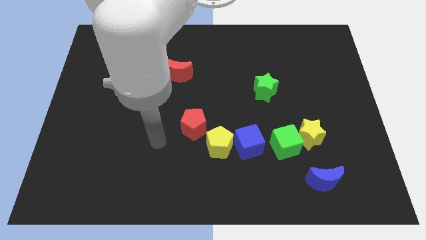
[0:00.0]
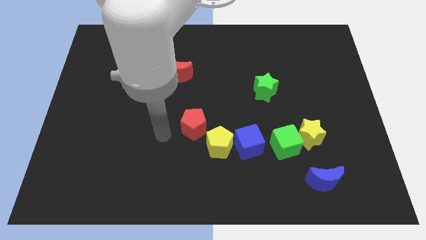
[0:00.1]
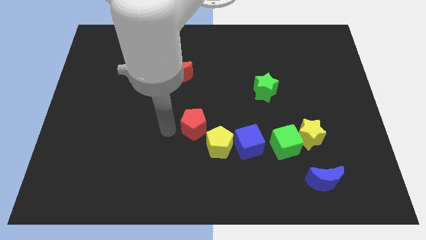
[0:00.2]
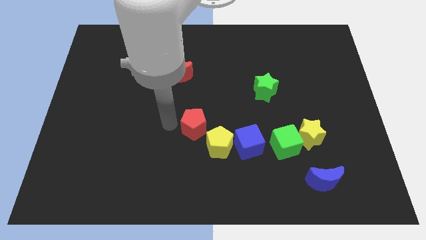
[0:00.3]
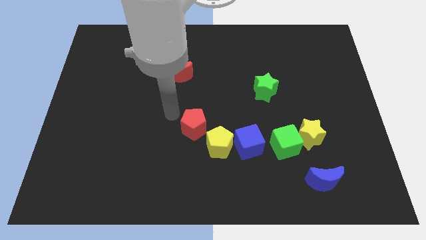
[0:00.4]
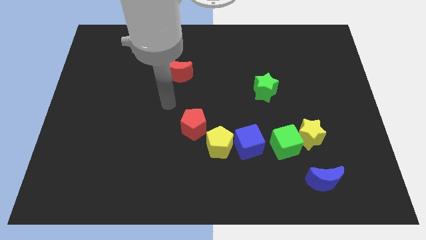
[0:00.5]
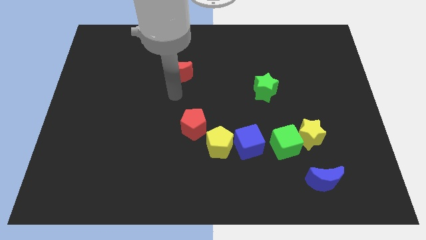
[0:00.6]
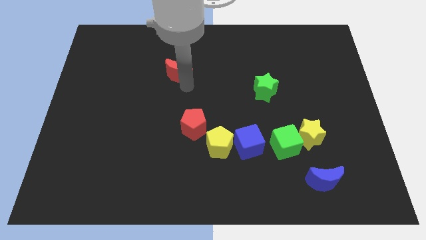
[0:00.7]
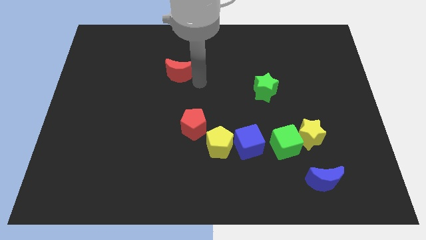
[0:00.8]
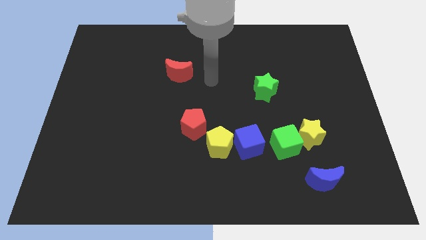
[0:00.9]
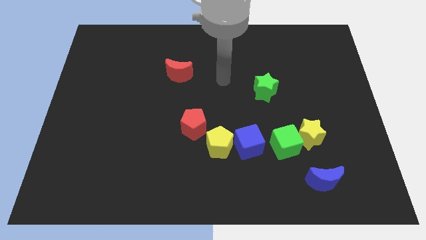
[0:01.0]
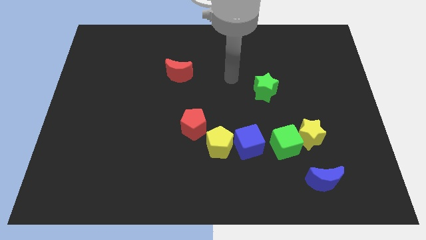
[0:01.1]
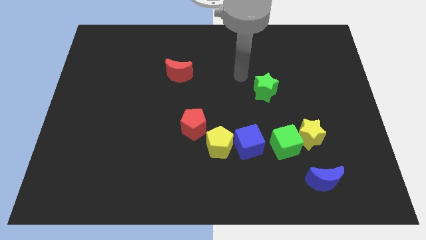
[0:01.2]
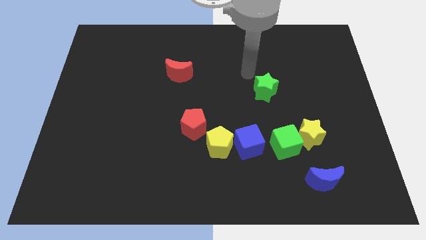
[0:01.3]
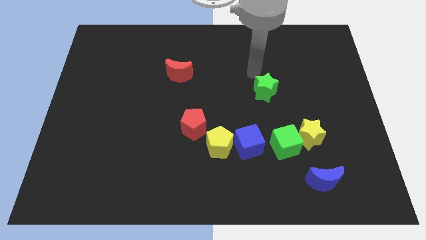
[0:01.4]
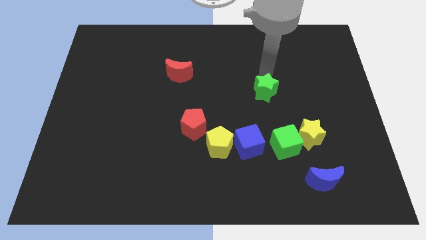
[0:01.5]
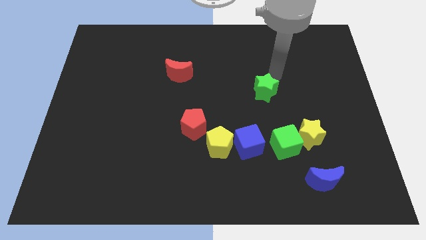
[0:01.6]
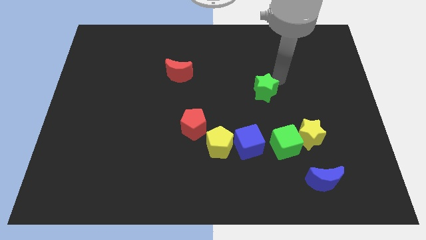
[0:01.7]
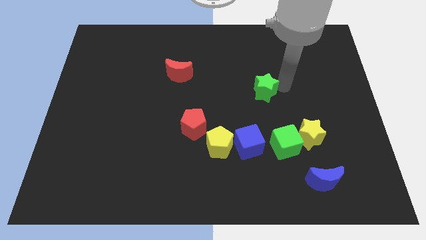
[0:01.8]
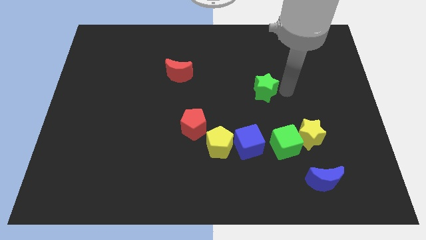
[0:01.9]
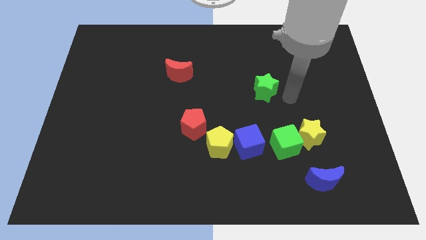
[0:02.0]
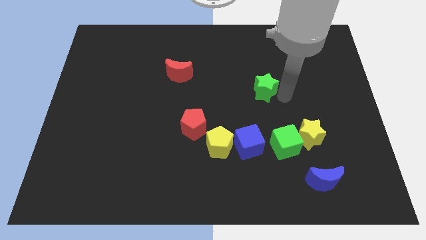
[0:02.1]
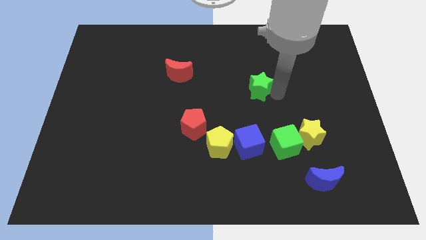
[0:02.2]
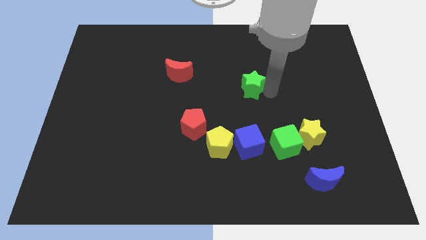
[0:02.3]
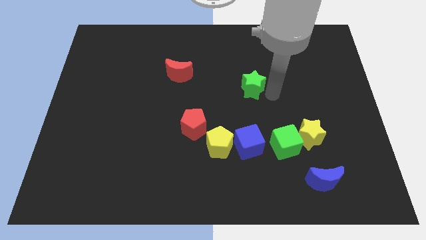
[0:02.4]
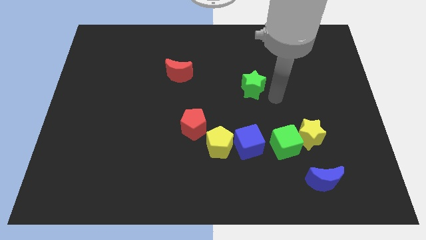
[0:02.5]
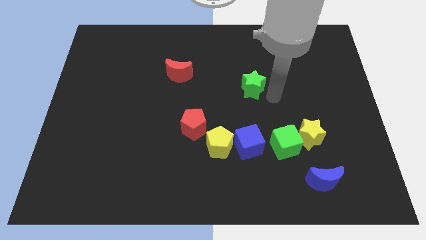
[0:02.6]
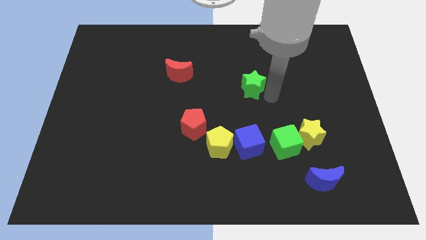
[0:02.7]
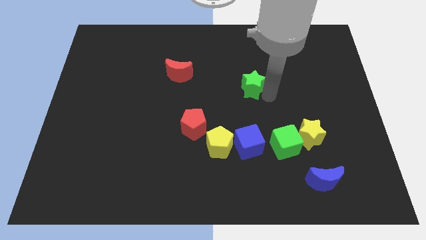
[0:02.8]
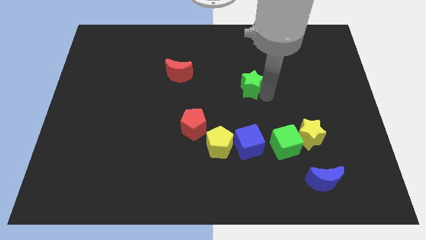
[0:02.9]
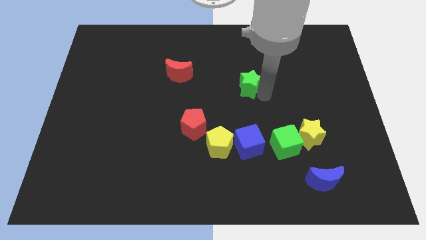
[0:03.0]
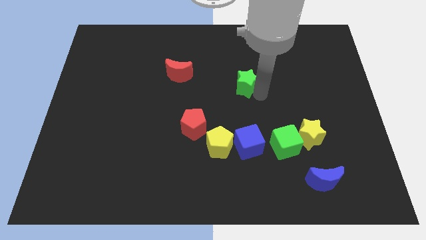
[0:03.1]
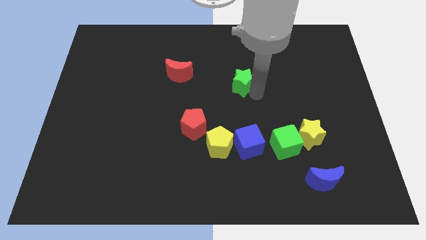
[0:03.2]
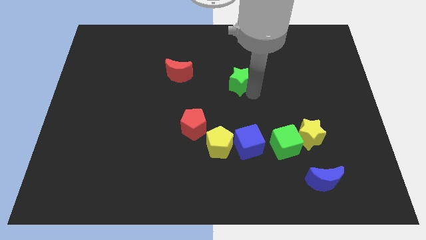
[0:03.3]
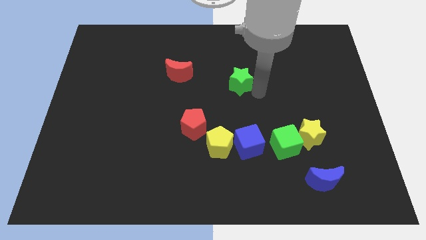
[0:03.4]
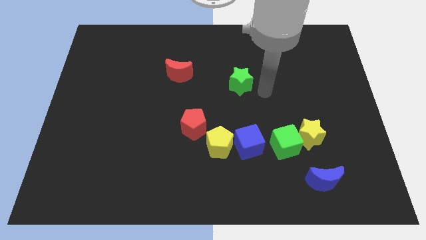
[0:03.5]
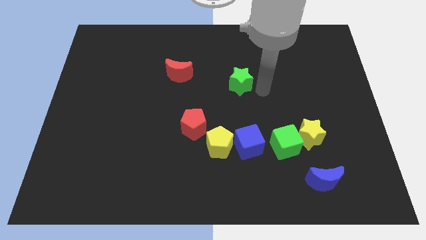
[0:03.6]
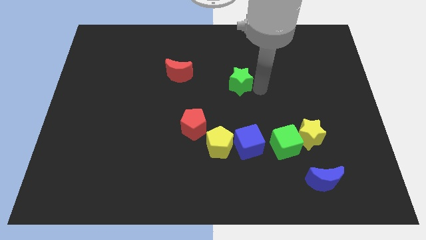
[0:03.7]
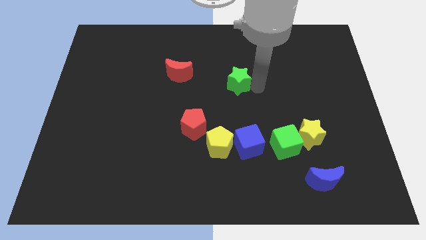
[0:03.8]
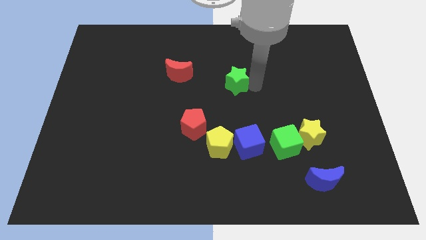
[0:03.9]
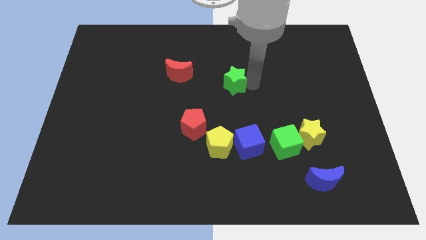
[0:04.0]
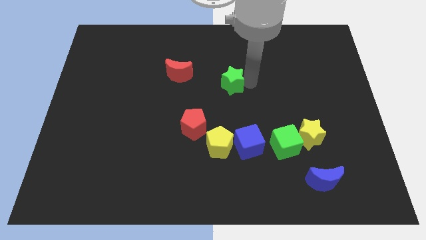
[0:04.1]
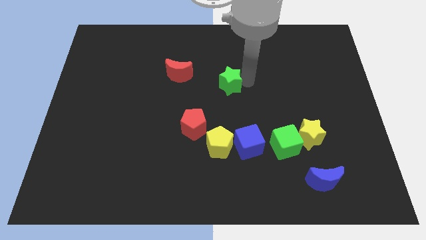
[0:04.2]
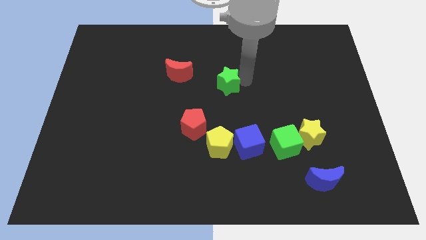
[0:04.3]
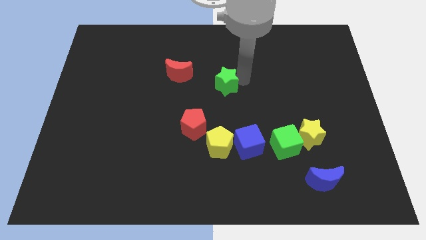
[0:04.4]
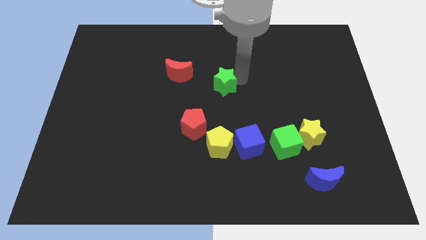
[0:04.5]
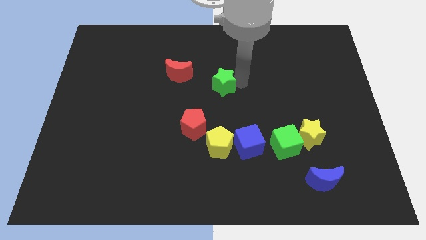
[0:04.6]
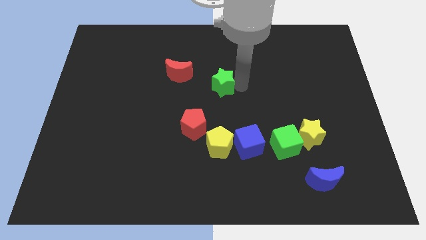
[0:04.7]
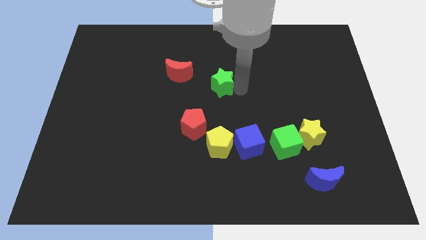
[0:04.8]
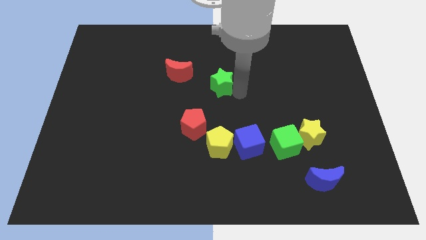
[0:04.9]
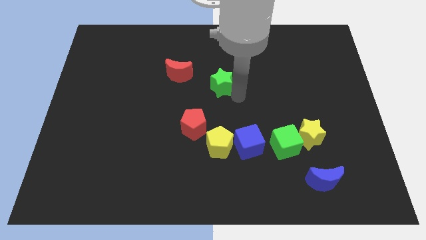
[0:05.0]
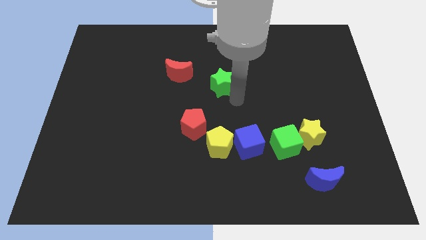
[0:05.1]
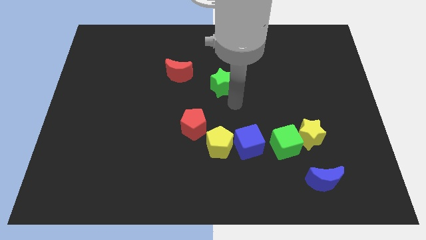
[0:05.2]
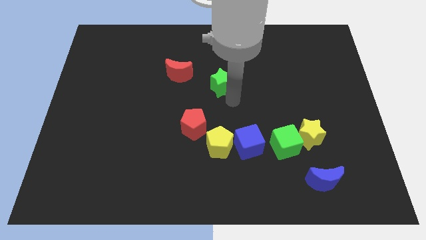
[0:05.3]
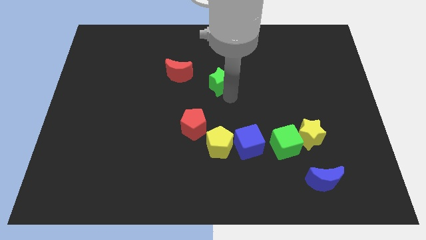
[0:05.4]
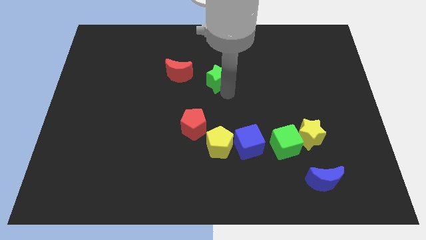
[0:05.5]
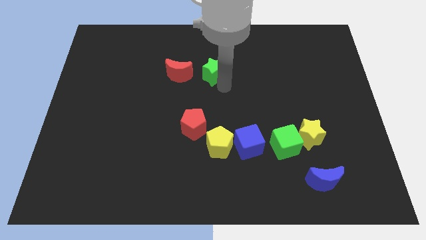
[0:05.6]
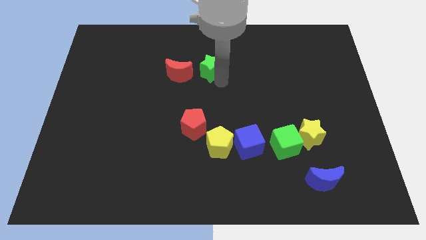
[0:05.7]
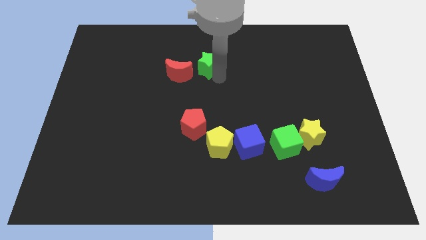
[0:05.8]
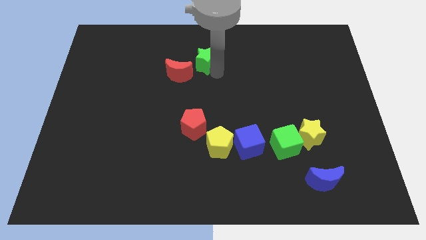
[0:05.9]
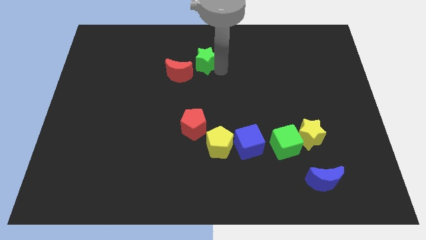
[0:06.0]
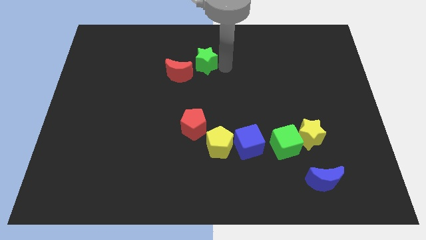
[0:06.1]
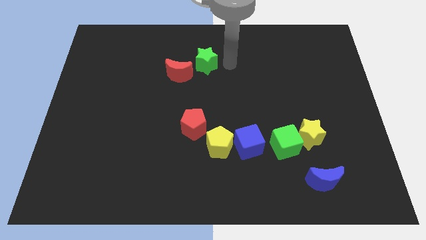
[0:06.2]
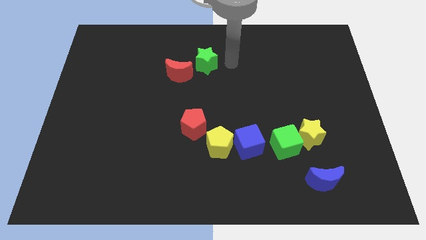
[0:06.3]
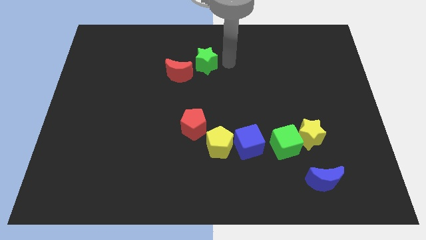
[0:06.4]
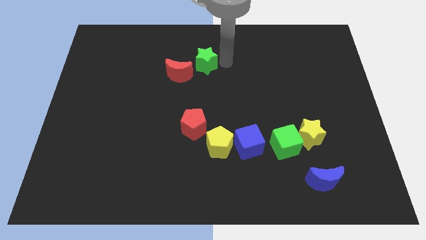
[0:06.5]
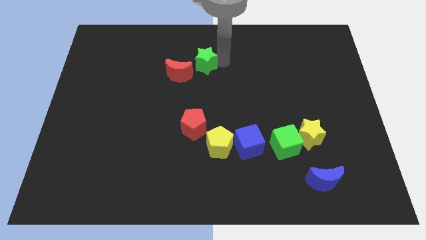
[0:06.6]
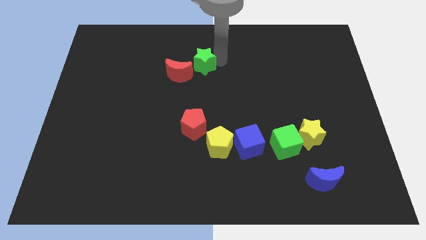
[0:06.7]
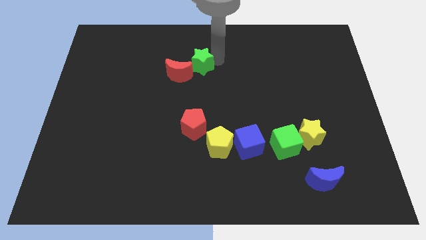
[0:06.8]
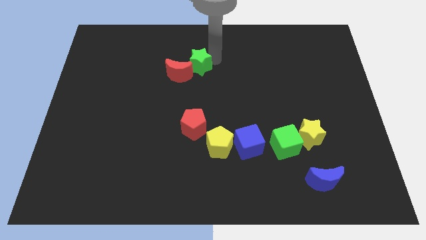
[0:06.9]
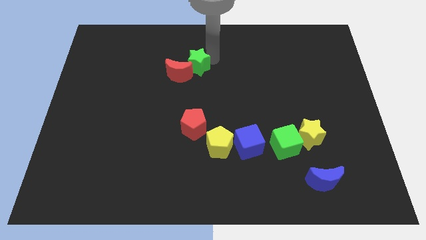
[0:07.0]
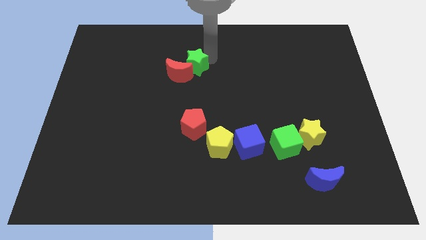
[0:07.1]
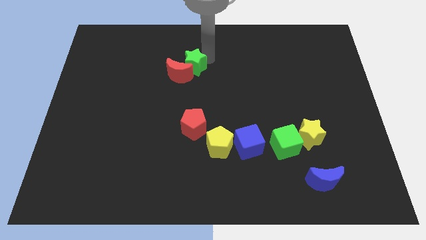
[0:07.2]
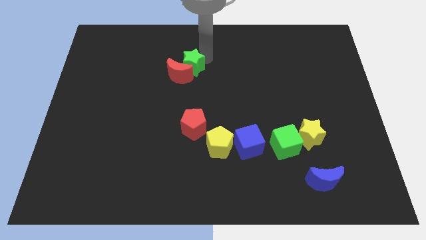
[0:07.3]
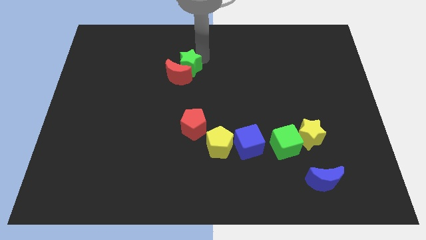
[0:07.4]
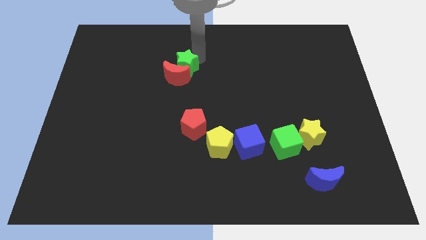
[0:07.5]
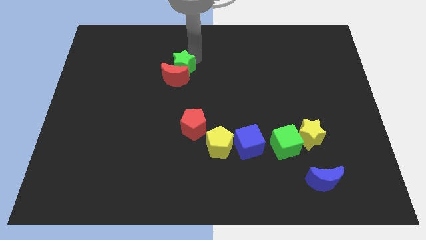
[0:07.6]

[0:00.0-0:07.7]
slide the green star to the top left side of the red moon
